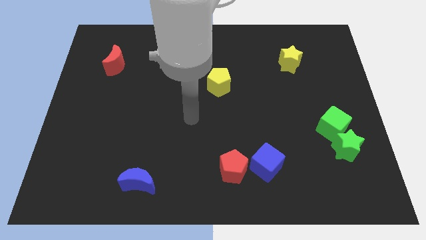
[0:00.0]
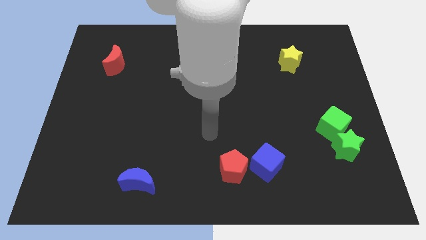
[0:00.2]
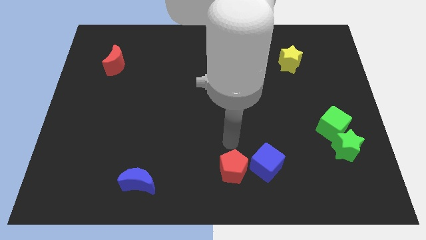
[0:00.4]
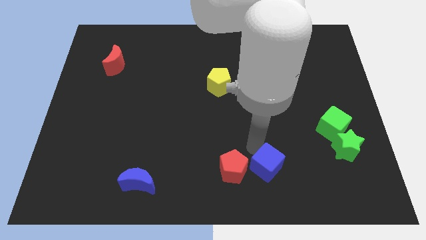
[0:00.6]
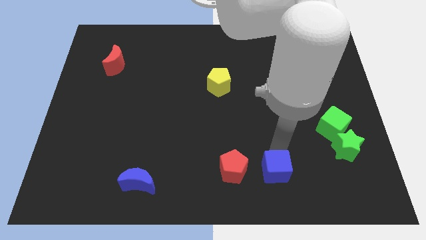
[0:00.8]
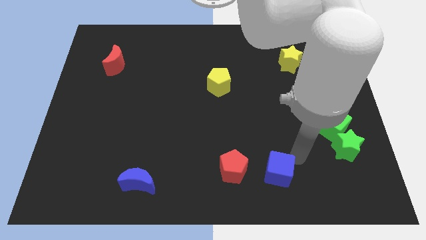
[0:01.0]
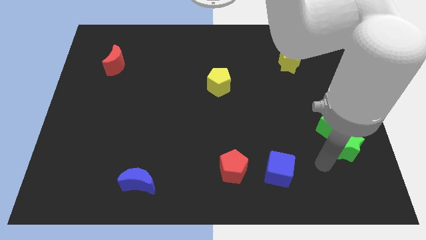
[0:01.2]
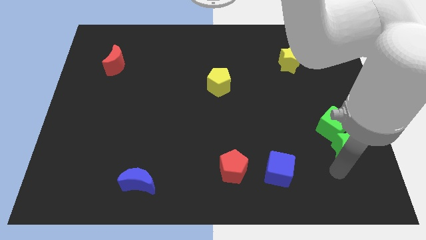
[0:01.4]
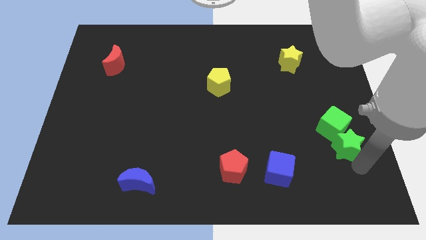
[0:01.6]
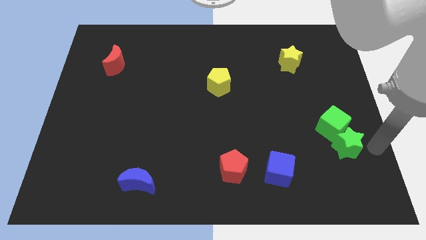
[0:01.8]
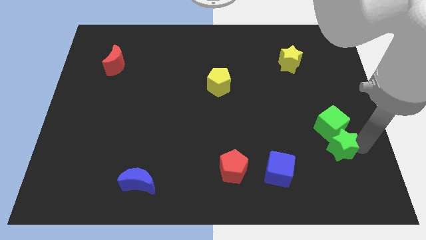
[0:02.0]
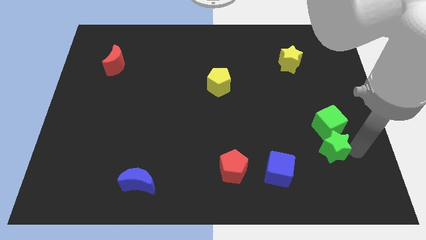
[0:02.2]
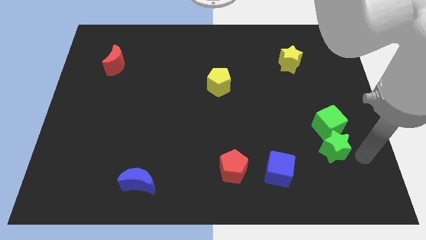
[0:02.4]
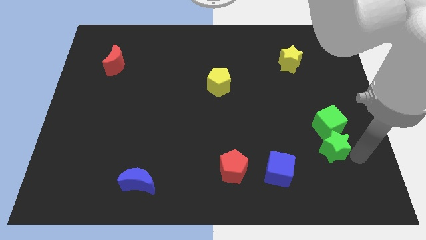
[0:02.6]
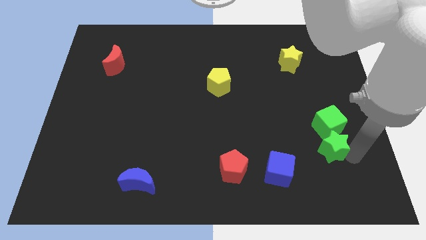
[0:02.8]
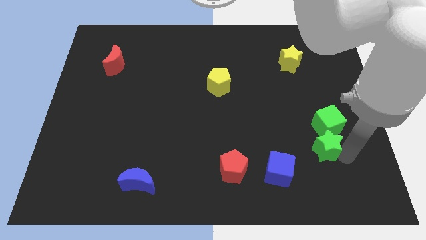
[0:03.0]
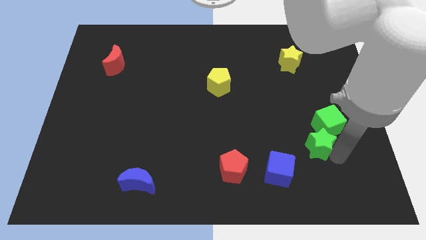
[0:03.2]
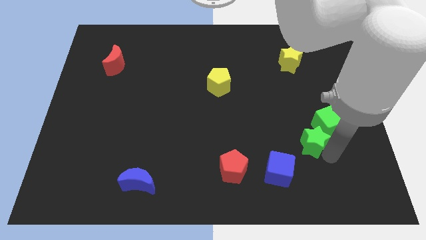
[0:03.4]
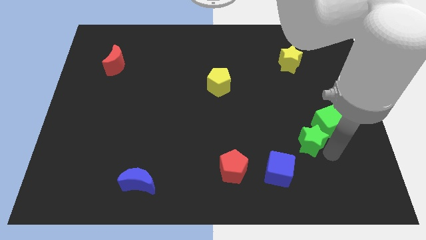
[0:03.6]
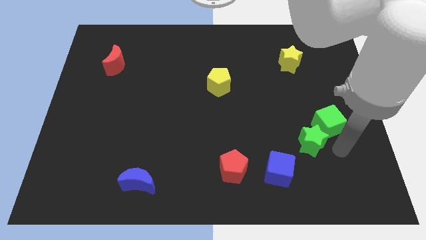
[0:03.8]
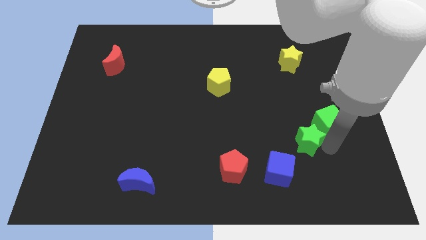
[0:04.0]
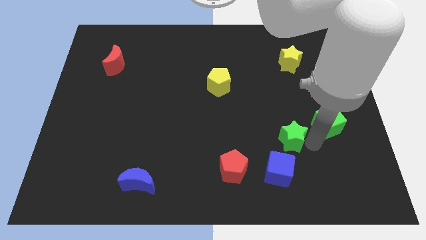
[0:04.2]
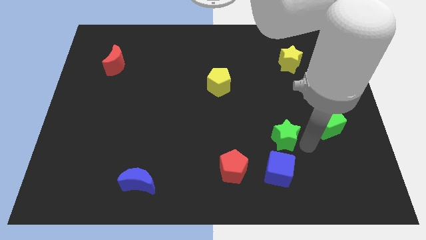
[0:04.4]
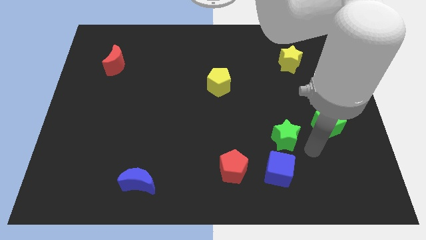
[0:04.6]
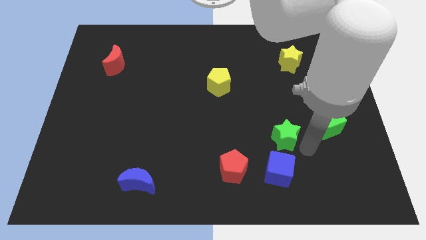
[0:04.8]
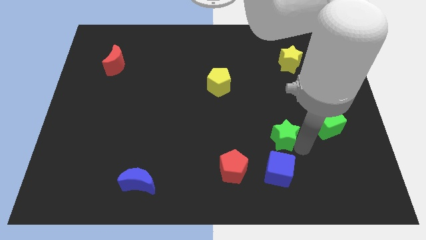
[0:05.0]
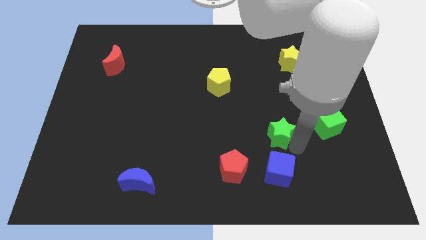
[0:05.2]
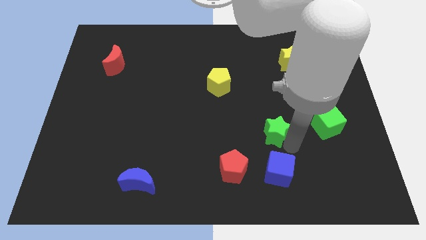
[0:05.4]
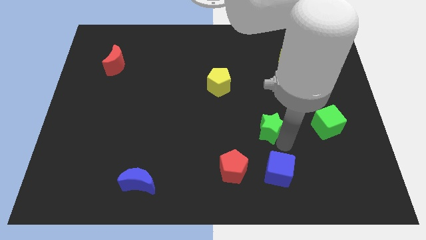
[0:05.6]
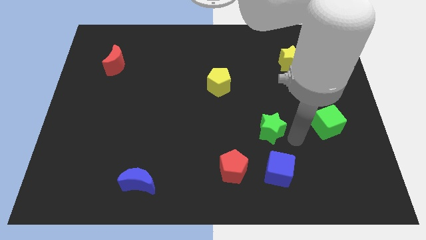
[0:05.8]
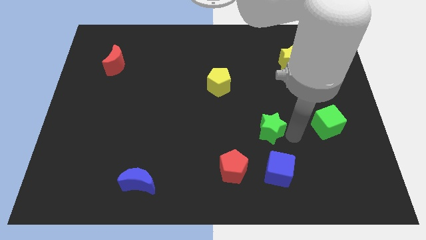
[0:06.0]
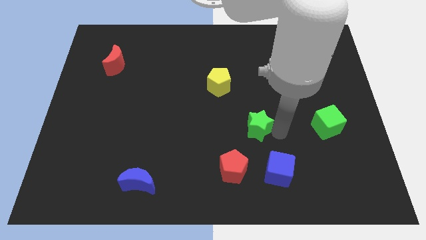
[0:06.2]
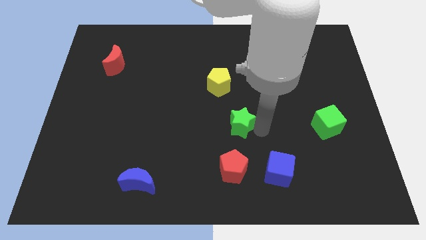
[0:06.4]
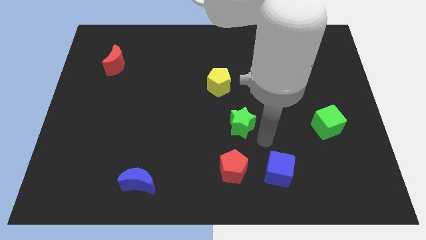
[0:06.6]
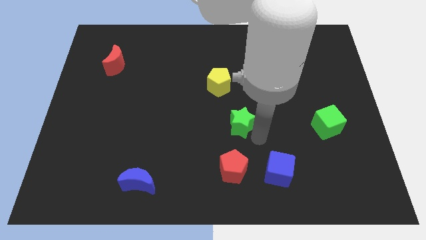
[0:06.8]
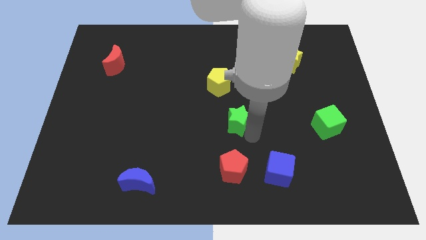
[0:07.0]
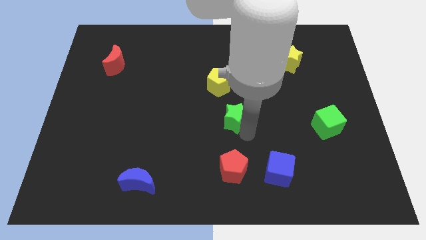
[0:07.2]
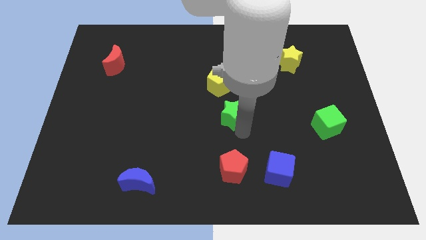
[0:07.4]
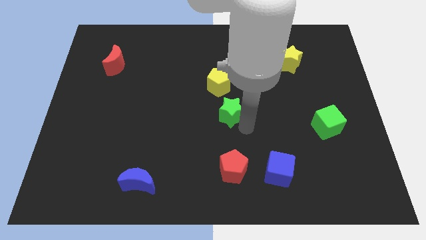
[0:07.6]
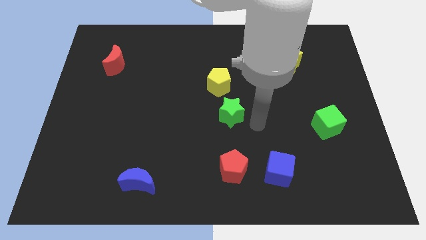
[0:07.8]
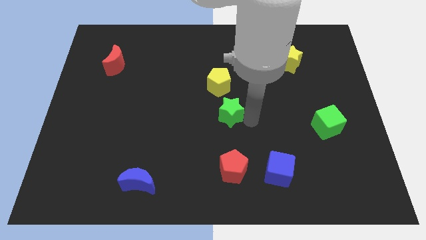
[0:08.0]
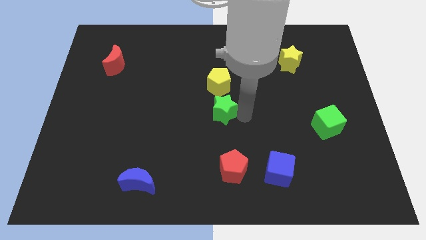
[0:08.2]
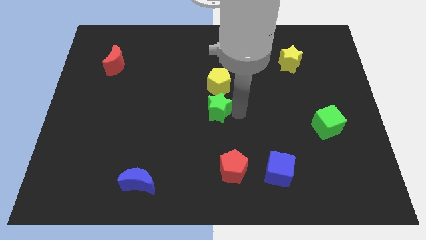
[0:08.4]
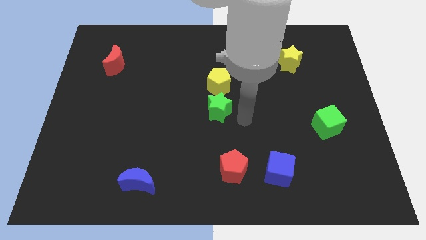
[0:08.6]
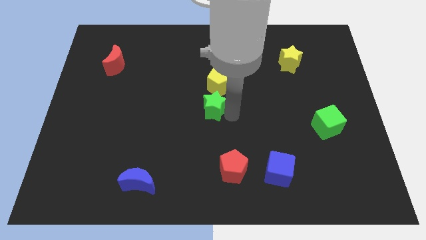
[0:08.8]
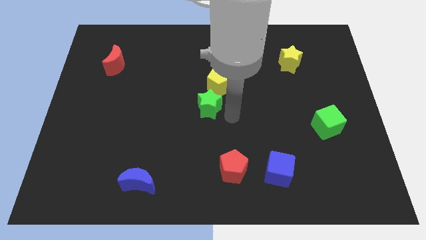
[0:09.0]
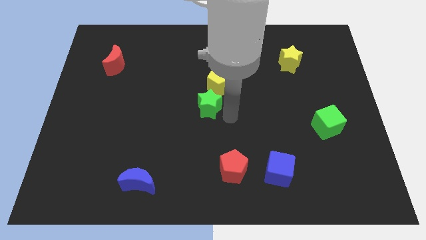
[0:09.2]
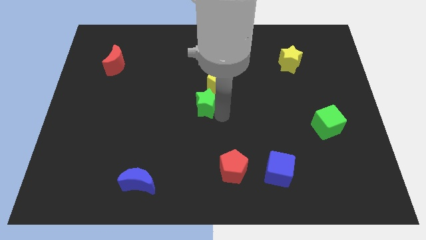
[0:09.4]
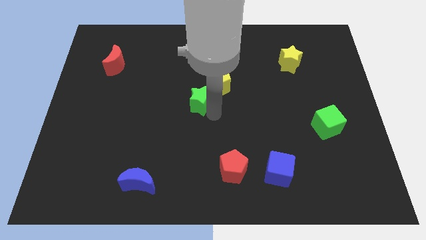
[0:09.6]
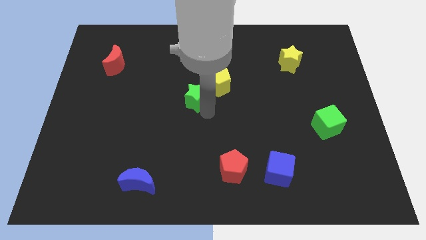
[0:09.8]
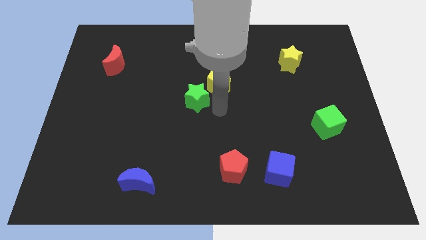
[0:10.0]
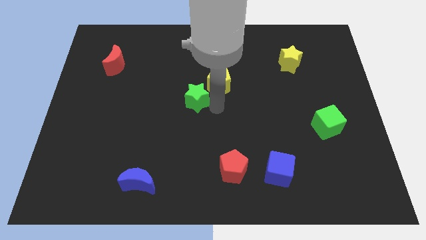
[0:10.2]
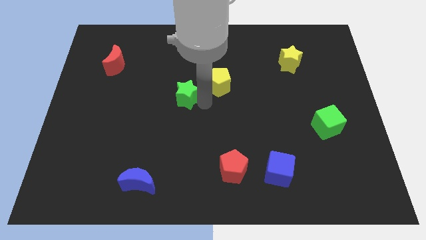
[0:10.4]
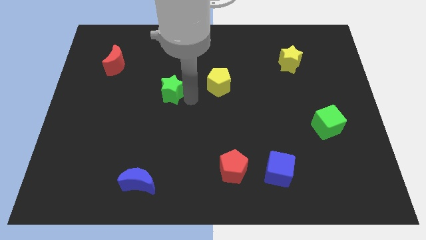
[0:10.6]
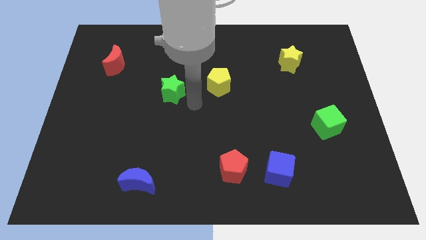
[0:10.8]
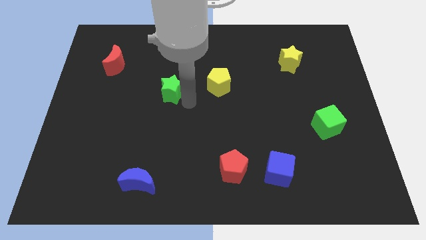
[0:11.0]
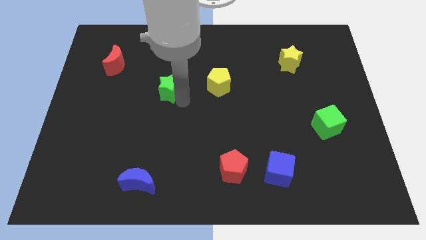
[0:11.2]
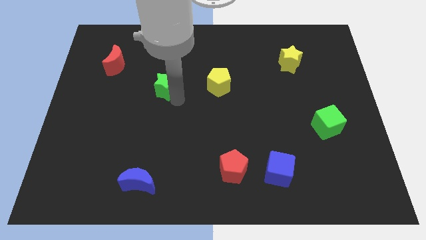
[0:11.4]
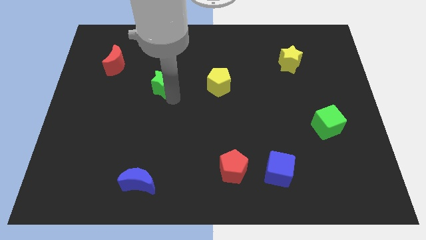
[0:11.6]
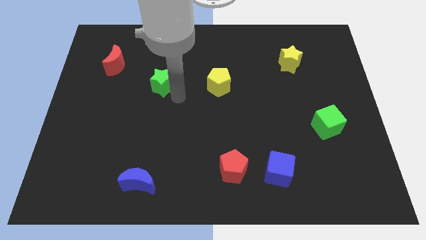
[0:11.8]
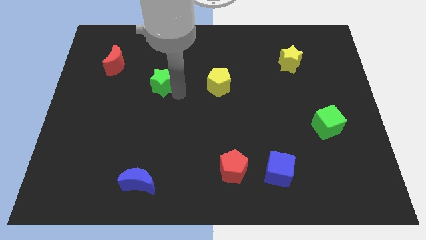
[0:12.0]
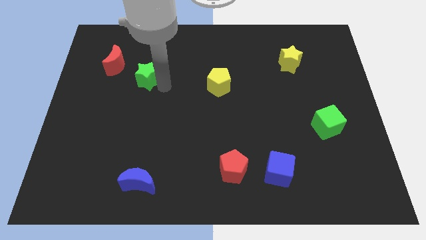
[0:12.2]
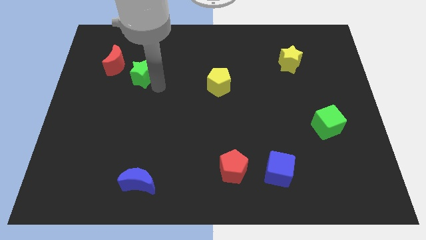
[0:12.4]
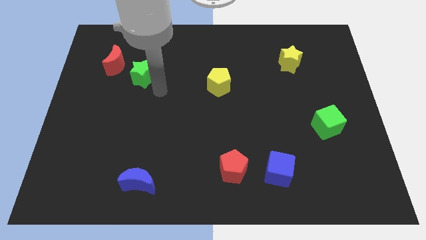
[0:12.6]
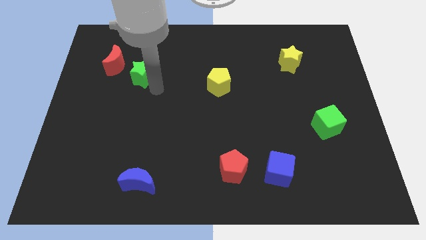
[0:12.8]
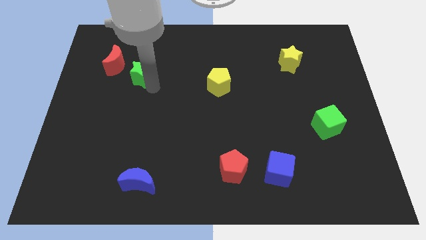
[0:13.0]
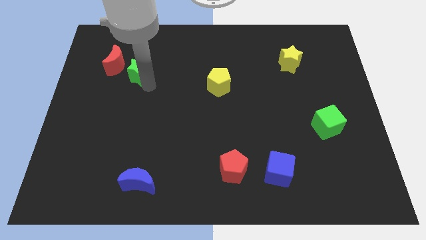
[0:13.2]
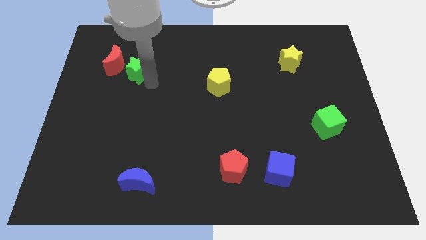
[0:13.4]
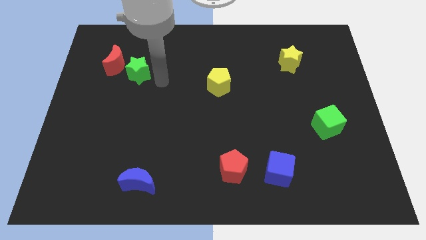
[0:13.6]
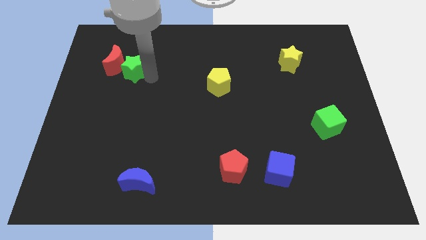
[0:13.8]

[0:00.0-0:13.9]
slide the green star to the red moon

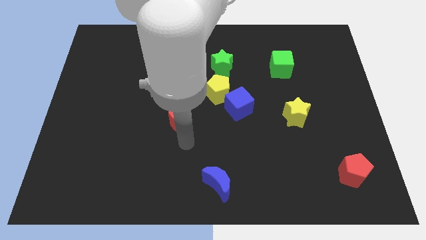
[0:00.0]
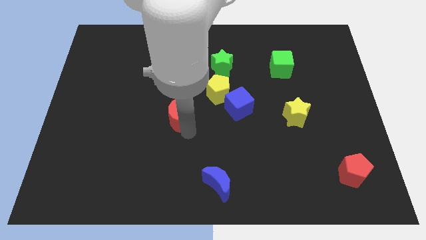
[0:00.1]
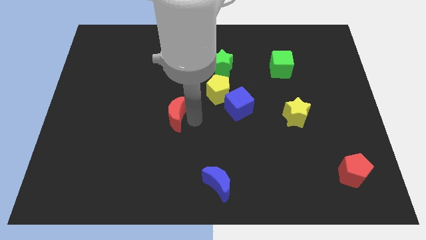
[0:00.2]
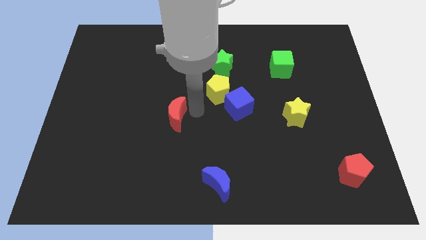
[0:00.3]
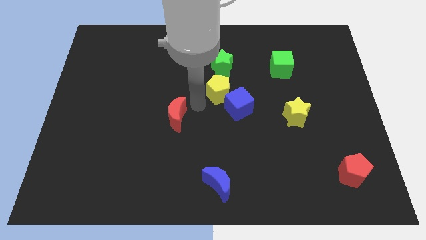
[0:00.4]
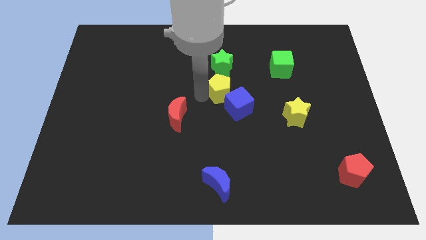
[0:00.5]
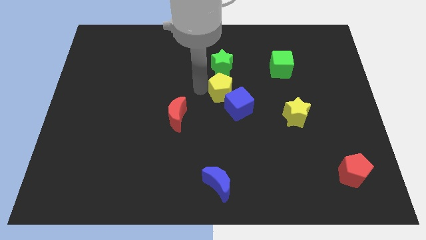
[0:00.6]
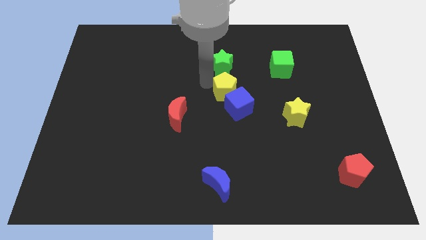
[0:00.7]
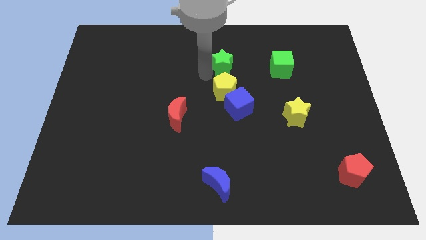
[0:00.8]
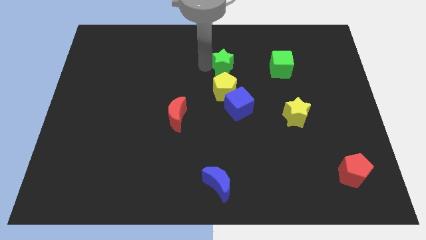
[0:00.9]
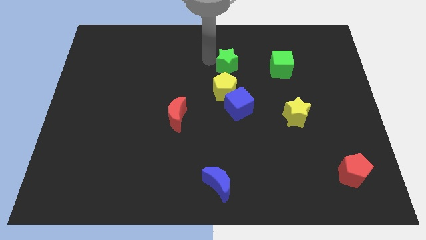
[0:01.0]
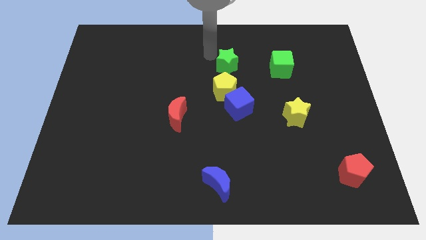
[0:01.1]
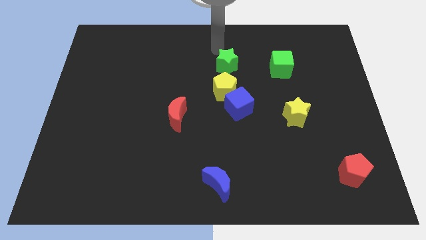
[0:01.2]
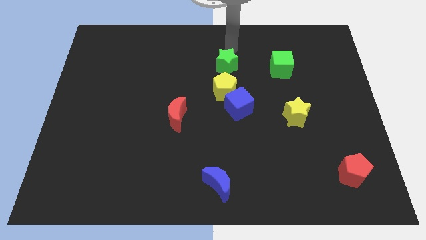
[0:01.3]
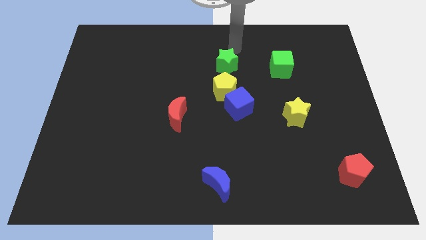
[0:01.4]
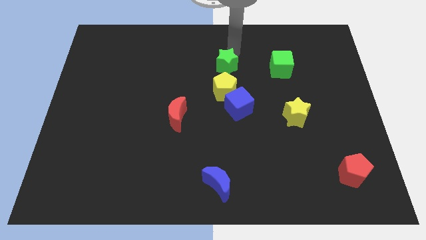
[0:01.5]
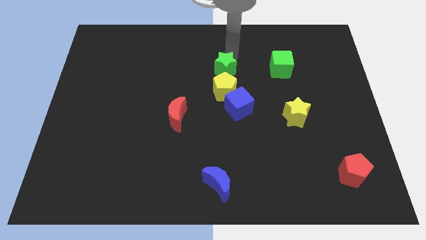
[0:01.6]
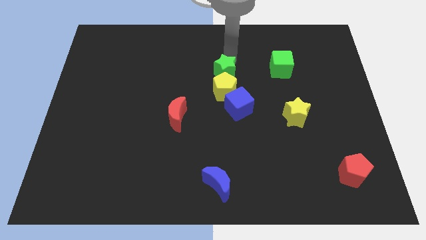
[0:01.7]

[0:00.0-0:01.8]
move the green star next to the yellow pentagon
